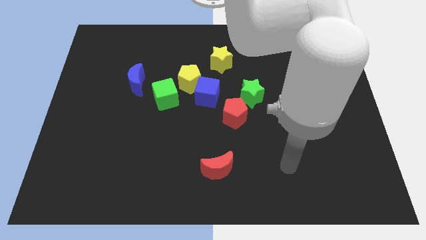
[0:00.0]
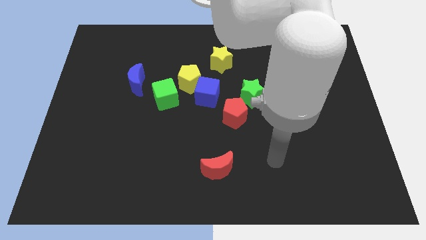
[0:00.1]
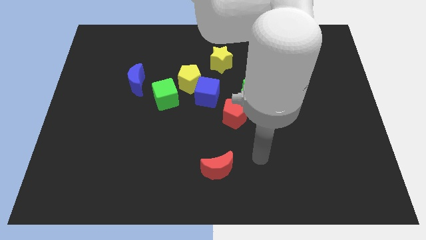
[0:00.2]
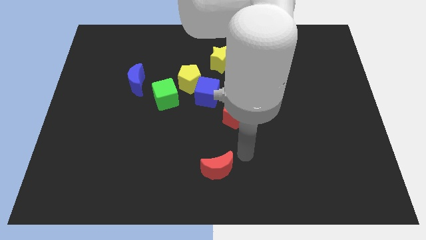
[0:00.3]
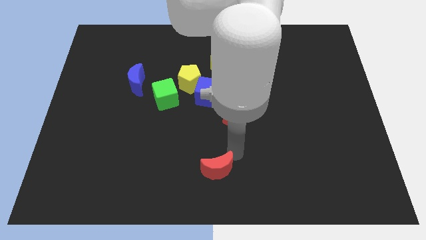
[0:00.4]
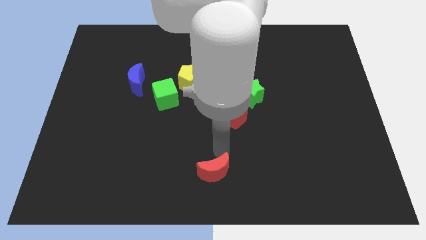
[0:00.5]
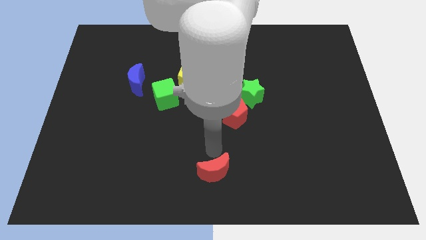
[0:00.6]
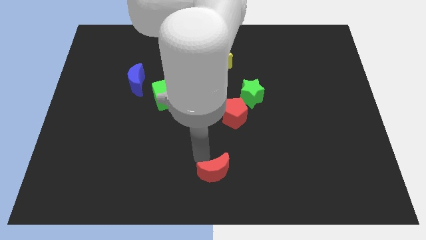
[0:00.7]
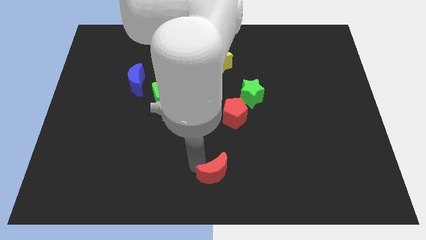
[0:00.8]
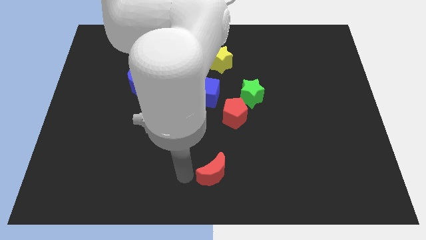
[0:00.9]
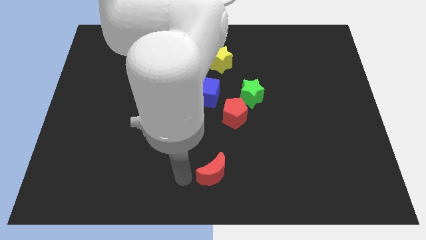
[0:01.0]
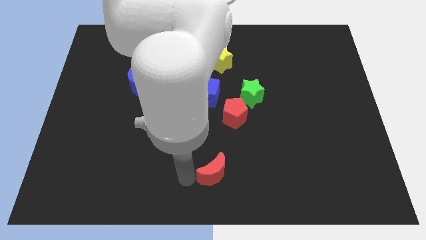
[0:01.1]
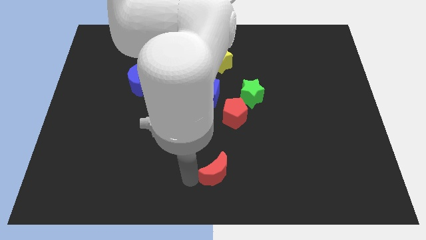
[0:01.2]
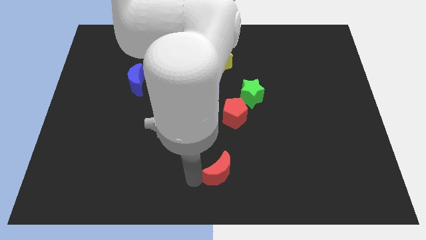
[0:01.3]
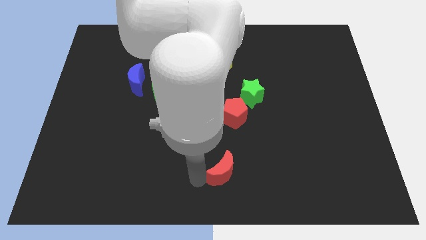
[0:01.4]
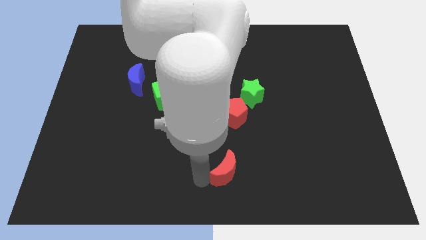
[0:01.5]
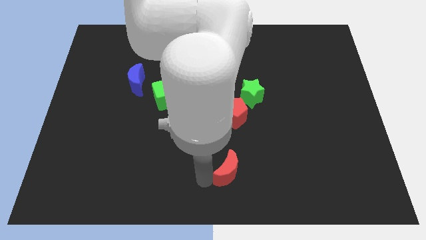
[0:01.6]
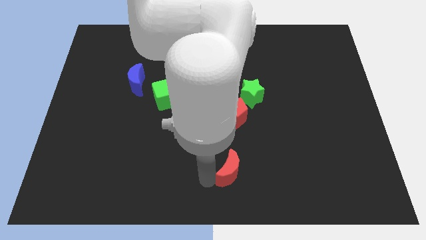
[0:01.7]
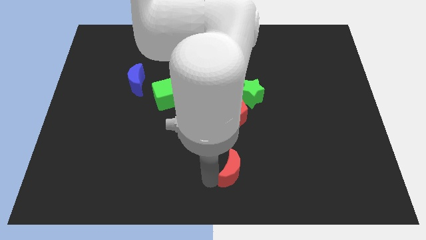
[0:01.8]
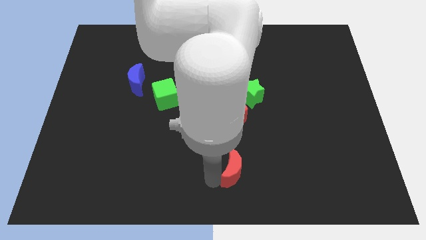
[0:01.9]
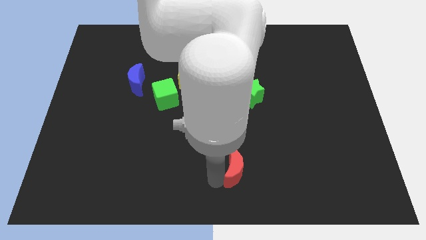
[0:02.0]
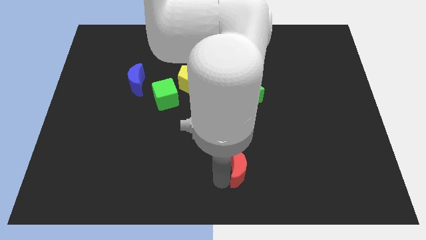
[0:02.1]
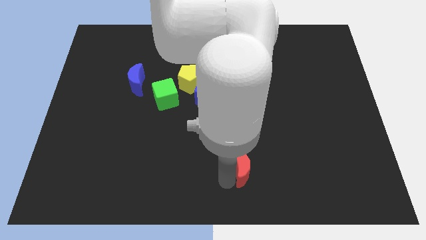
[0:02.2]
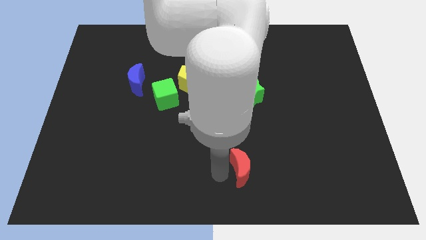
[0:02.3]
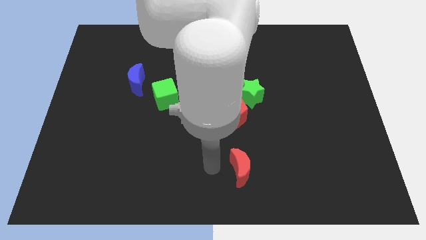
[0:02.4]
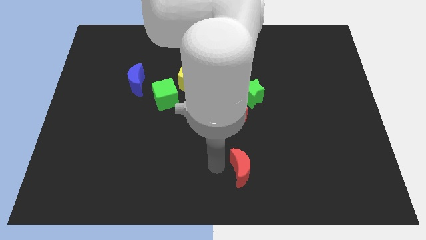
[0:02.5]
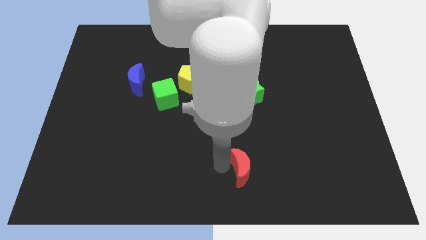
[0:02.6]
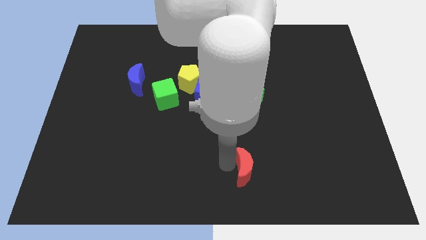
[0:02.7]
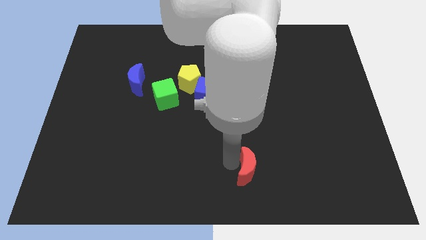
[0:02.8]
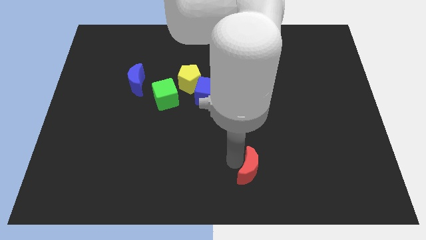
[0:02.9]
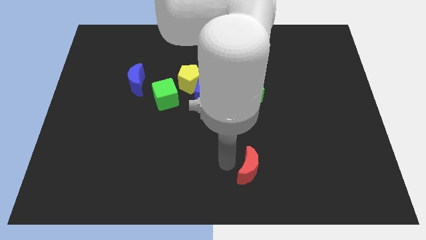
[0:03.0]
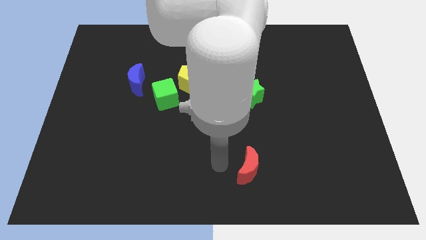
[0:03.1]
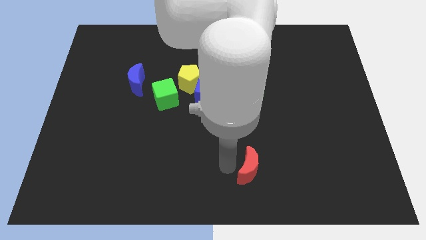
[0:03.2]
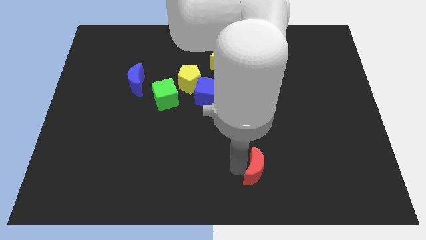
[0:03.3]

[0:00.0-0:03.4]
slightly push the red moon right

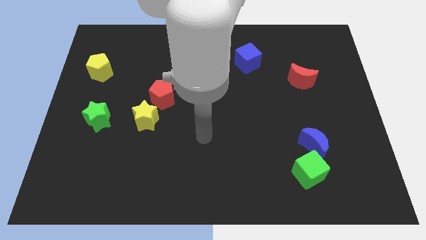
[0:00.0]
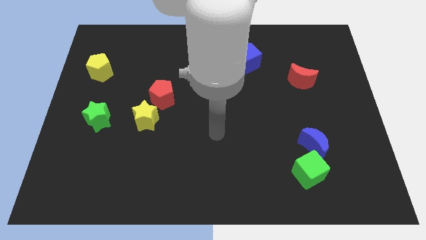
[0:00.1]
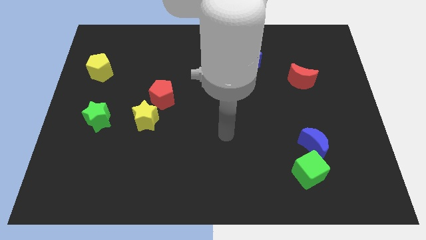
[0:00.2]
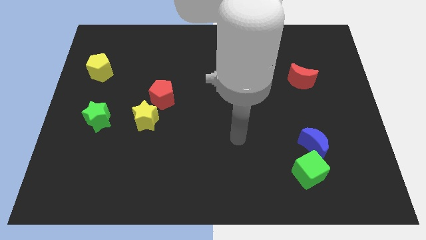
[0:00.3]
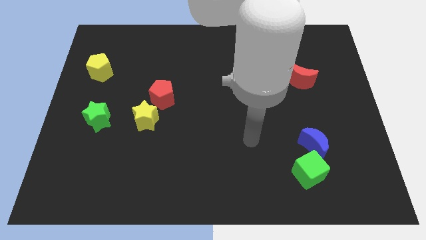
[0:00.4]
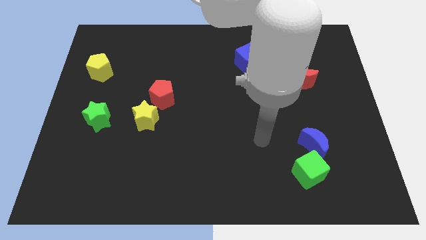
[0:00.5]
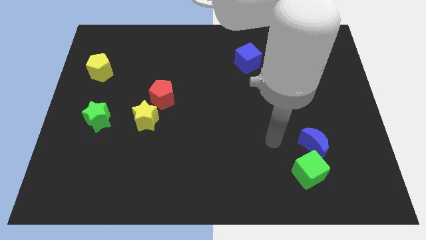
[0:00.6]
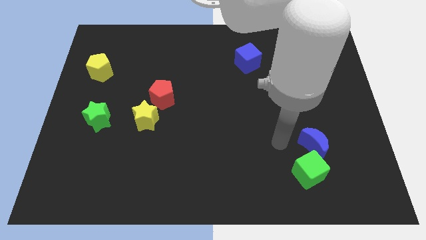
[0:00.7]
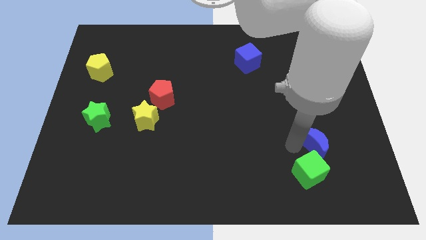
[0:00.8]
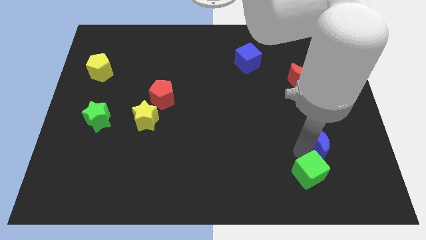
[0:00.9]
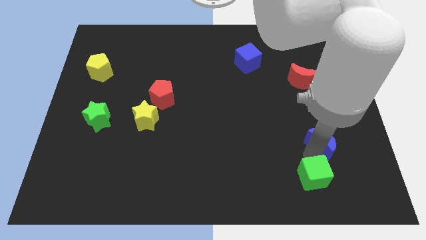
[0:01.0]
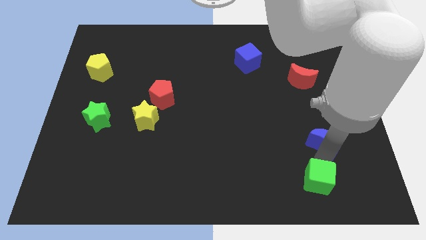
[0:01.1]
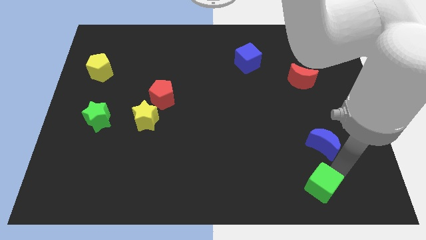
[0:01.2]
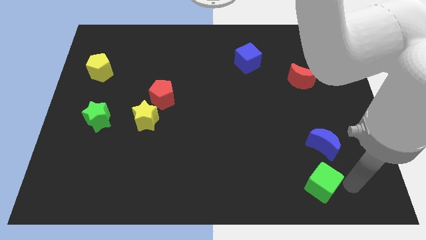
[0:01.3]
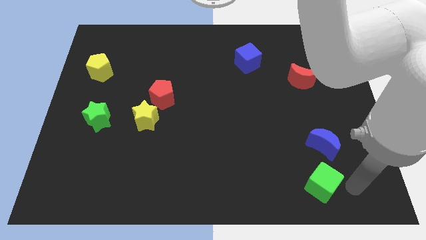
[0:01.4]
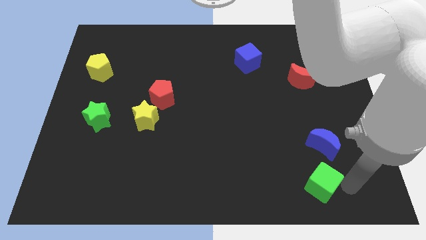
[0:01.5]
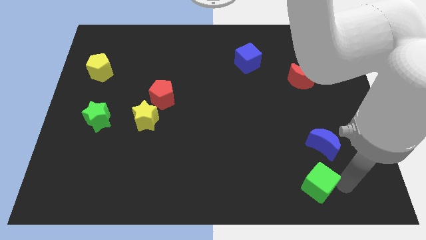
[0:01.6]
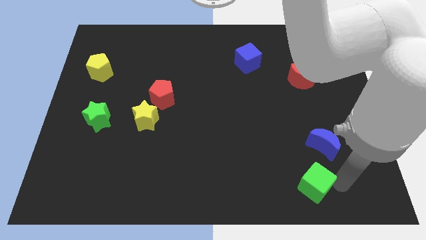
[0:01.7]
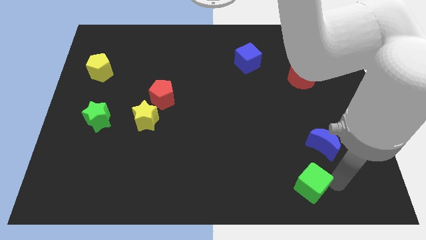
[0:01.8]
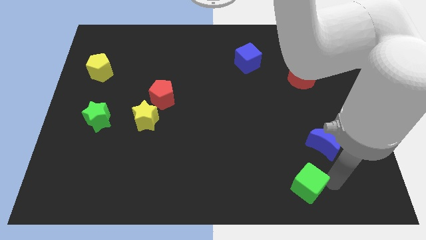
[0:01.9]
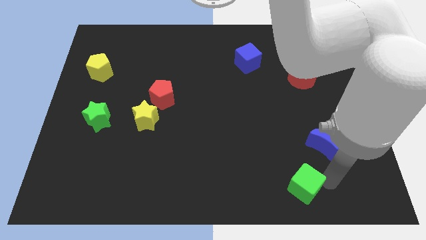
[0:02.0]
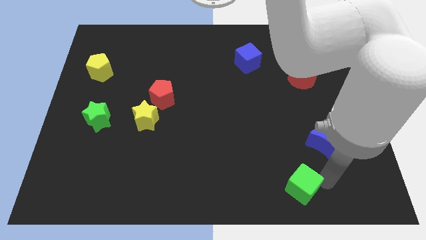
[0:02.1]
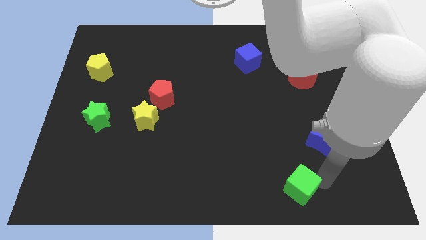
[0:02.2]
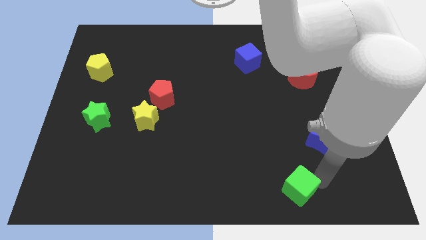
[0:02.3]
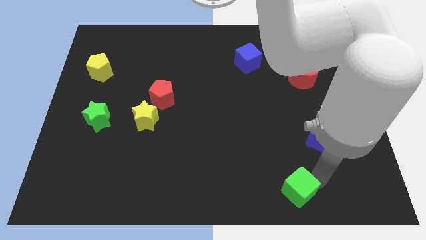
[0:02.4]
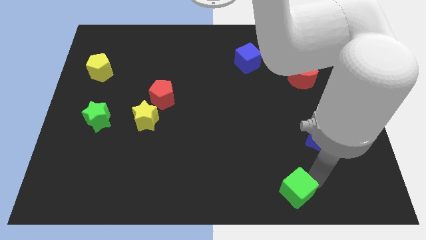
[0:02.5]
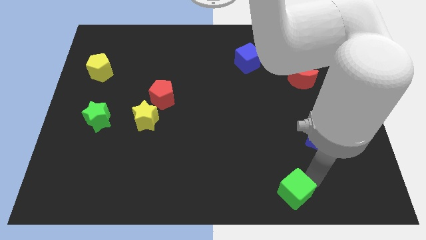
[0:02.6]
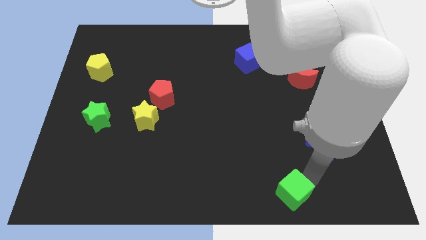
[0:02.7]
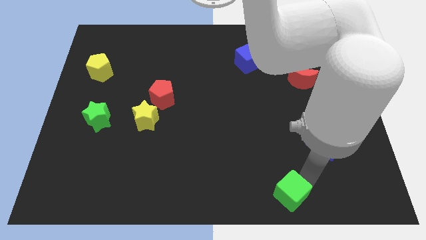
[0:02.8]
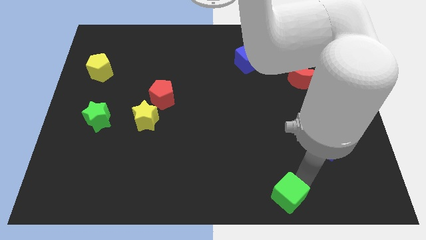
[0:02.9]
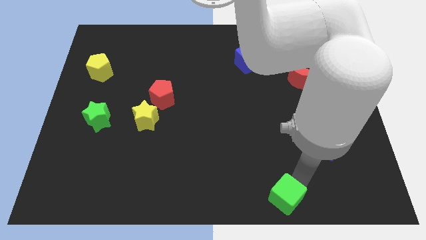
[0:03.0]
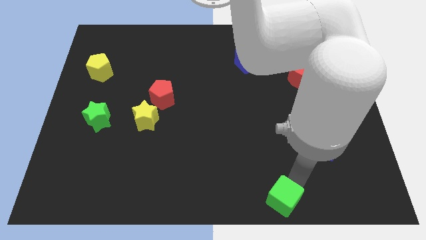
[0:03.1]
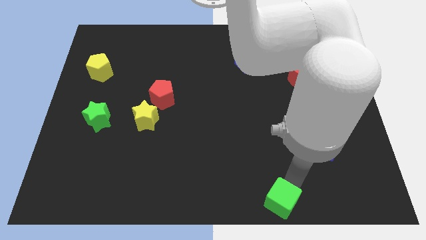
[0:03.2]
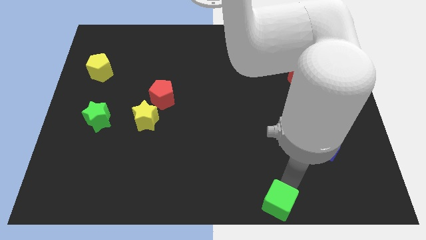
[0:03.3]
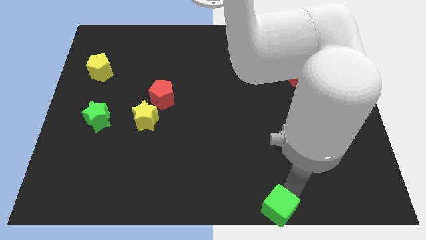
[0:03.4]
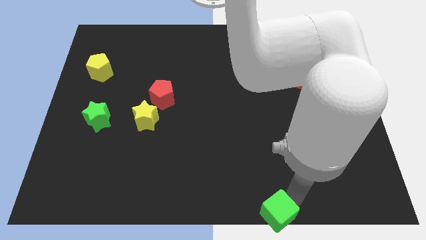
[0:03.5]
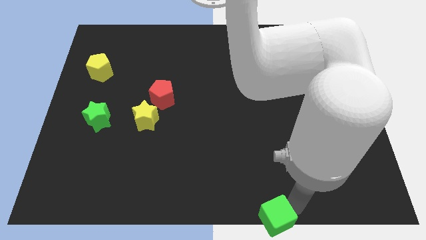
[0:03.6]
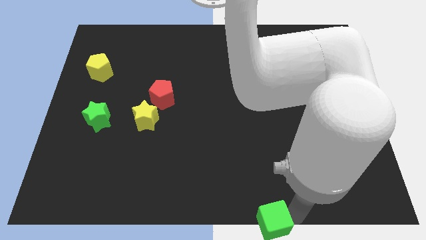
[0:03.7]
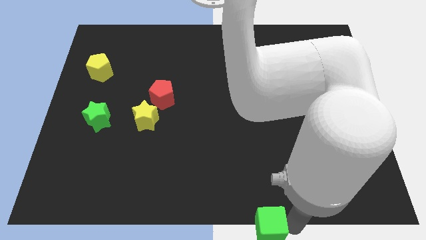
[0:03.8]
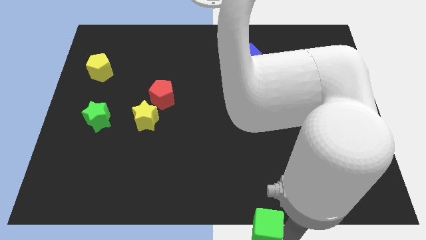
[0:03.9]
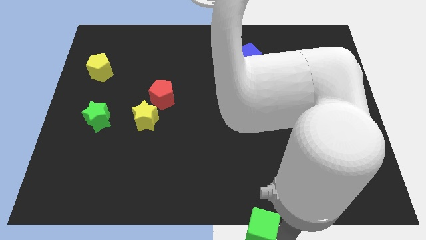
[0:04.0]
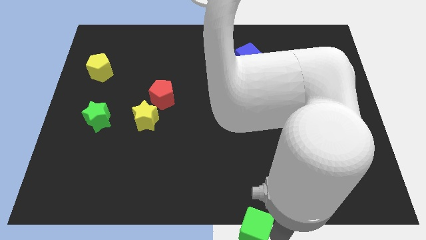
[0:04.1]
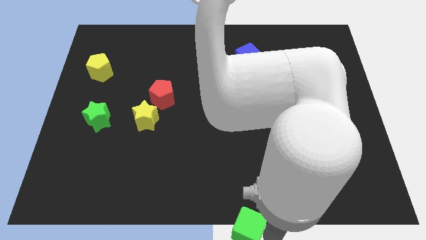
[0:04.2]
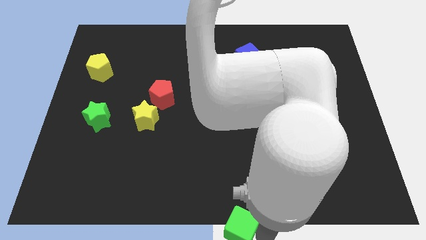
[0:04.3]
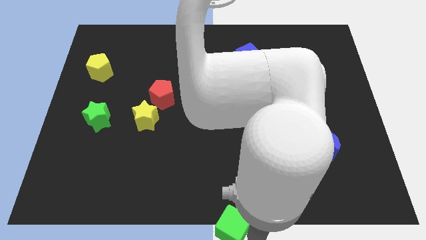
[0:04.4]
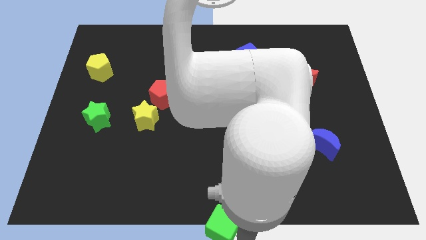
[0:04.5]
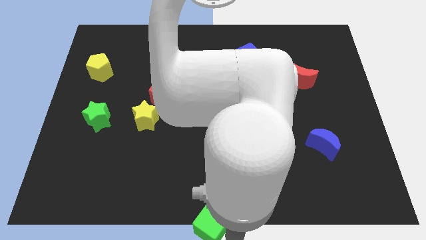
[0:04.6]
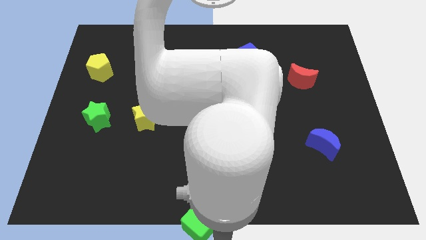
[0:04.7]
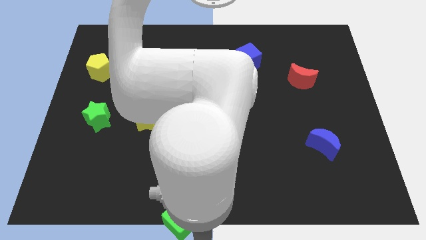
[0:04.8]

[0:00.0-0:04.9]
move the green cube to the left
